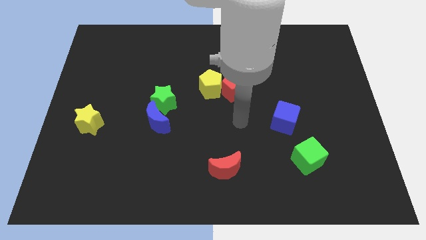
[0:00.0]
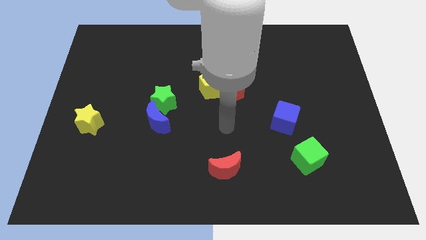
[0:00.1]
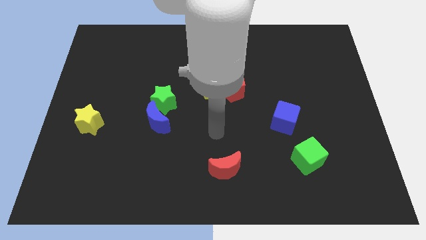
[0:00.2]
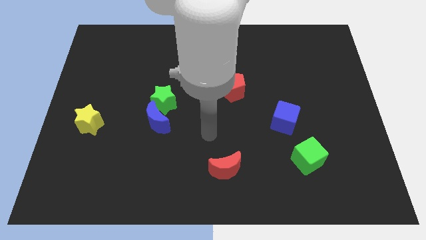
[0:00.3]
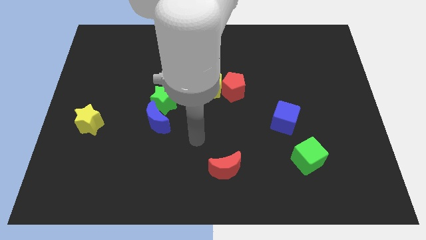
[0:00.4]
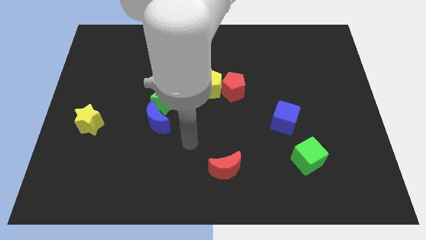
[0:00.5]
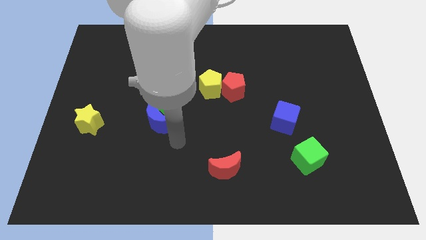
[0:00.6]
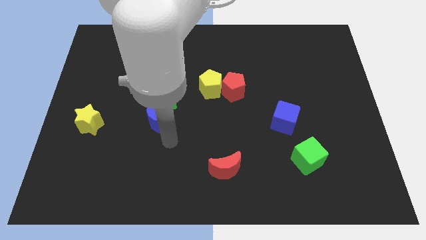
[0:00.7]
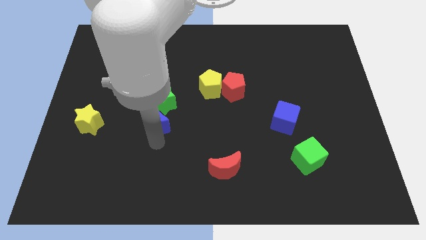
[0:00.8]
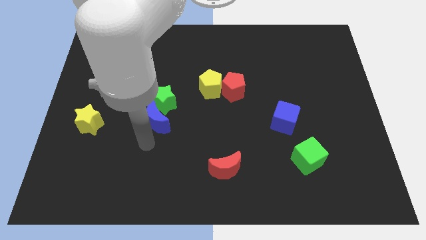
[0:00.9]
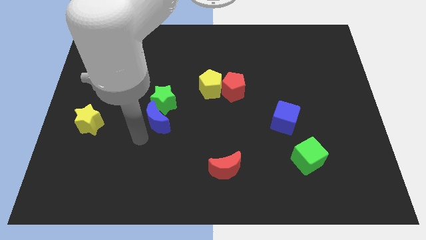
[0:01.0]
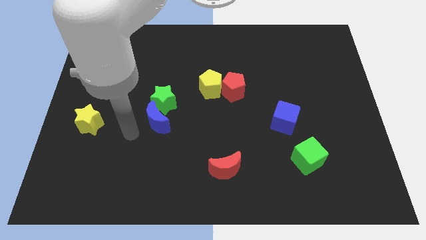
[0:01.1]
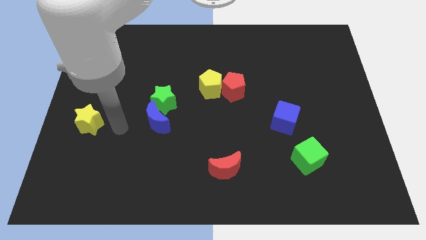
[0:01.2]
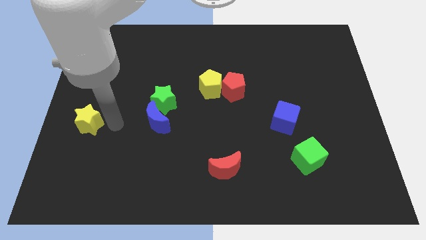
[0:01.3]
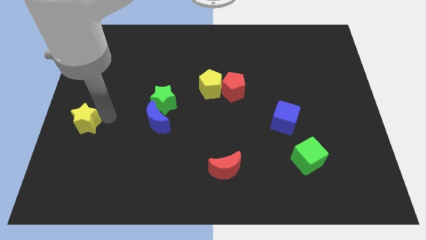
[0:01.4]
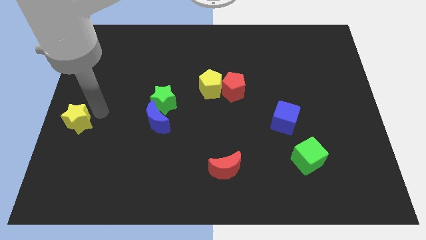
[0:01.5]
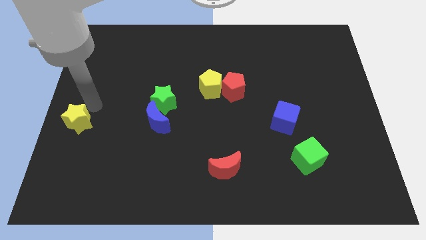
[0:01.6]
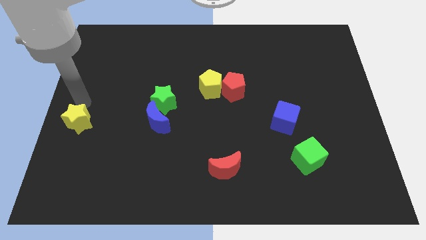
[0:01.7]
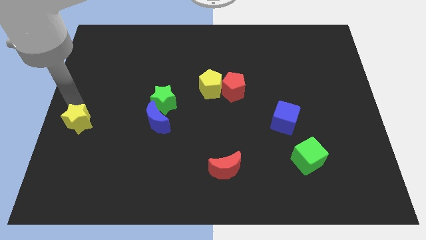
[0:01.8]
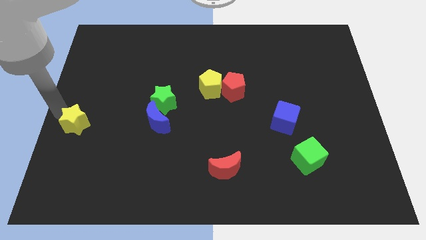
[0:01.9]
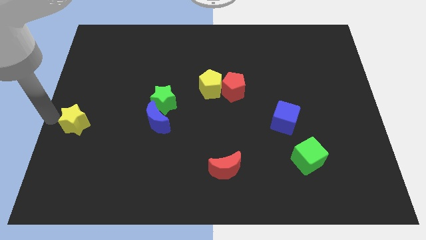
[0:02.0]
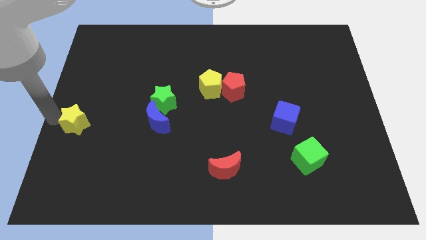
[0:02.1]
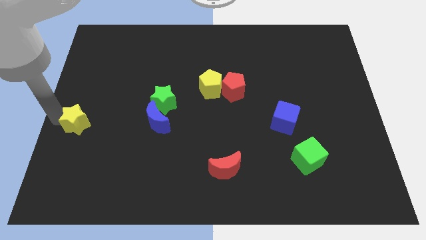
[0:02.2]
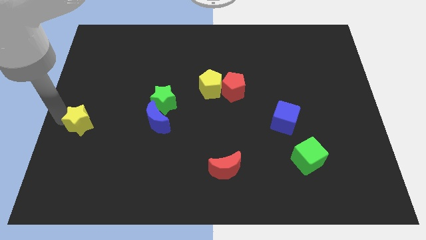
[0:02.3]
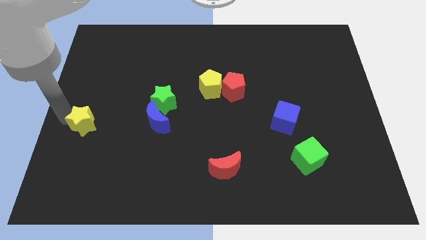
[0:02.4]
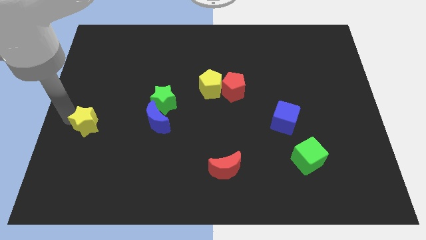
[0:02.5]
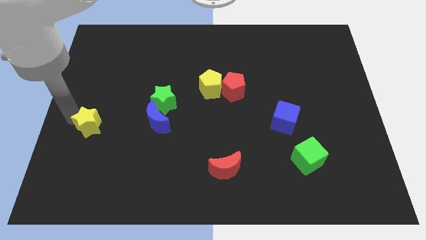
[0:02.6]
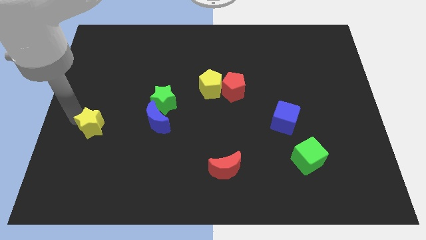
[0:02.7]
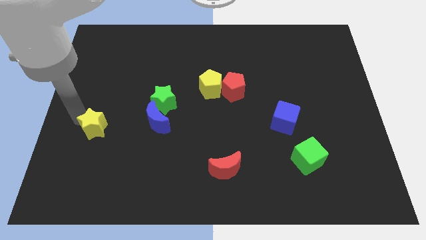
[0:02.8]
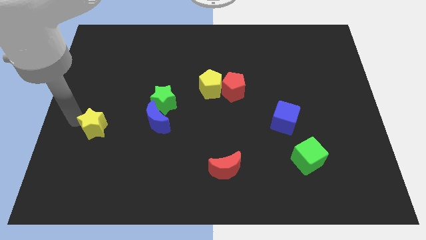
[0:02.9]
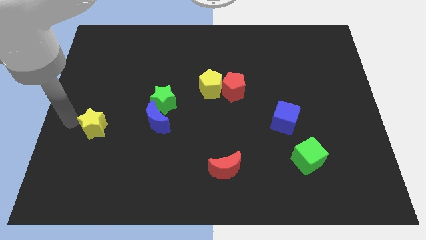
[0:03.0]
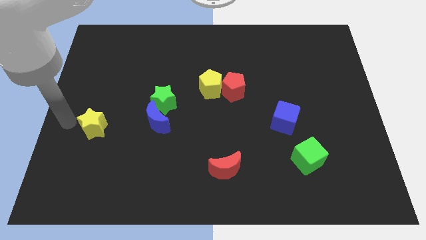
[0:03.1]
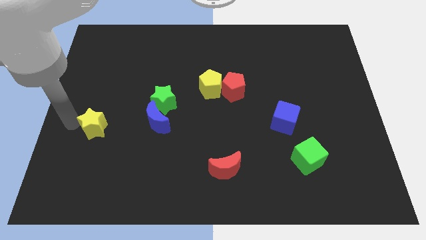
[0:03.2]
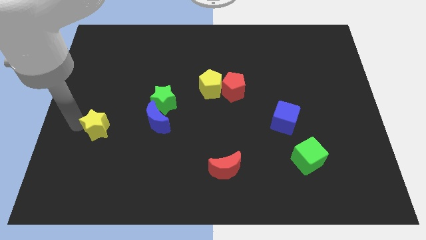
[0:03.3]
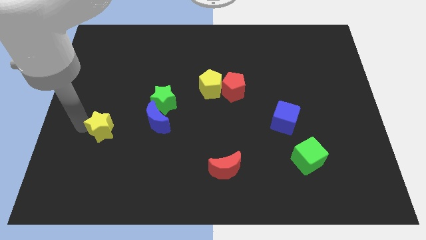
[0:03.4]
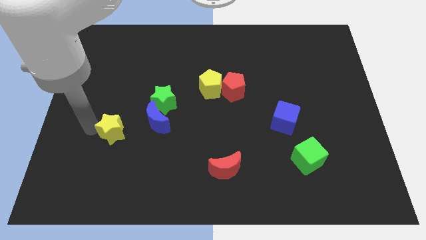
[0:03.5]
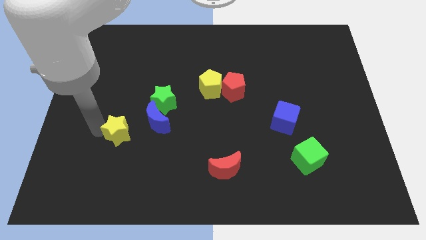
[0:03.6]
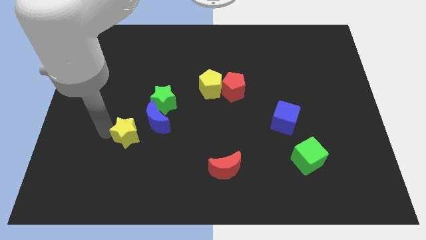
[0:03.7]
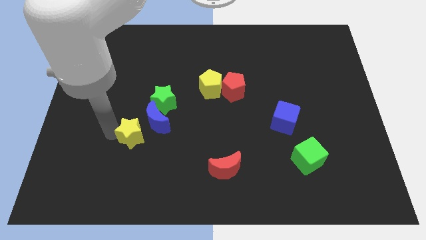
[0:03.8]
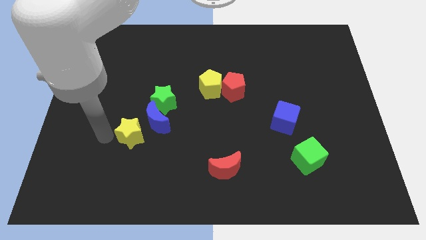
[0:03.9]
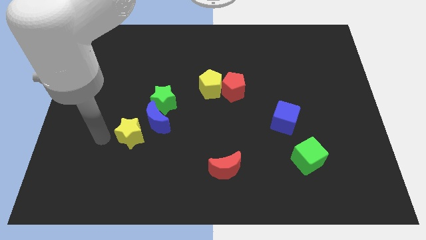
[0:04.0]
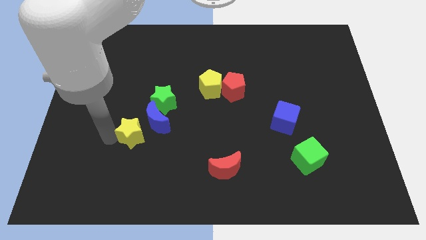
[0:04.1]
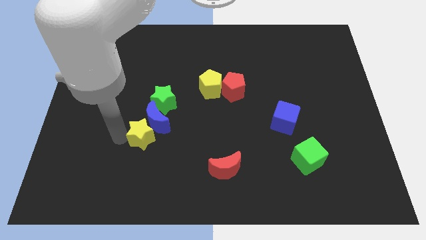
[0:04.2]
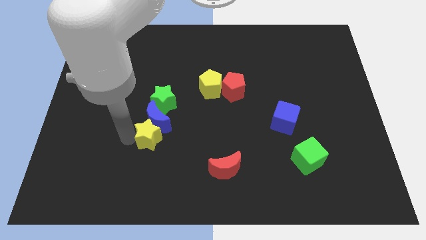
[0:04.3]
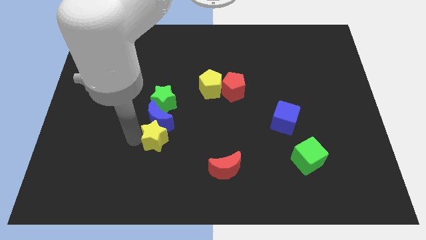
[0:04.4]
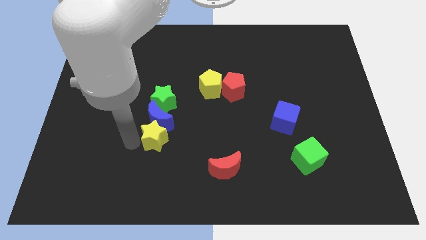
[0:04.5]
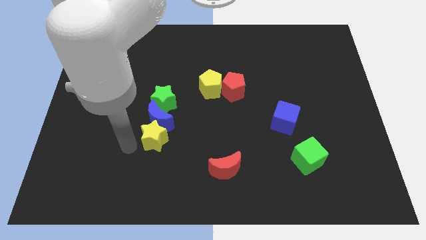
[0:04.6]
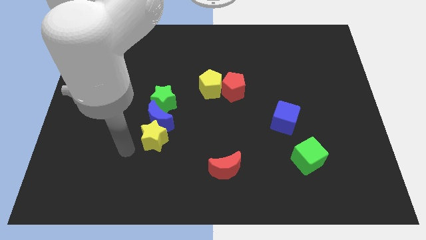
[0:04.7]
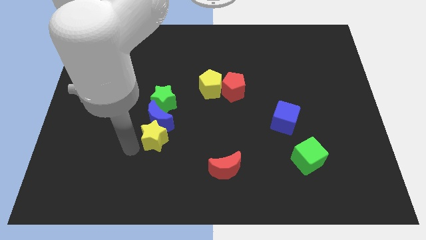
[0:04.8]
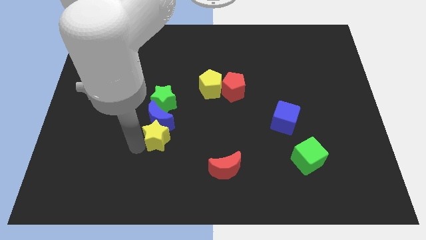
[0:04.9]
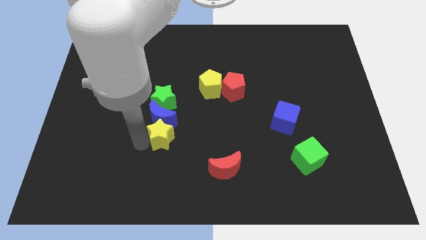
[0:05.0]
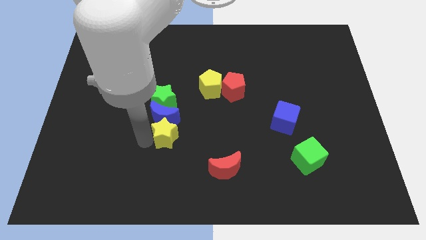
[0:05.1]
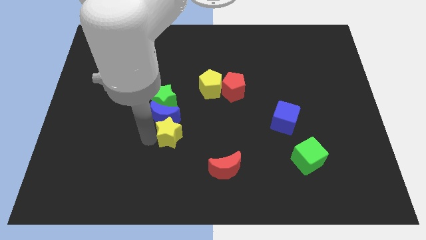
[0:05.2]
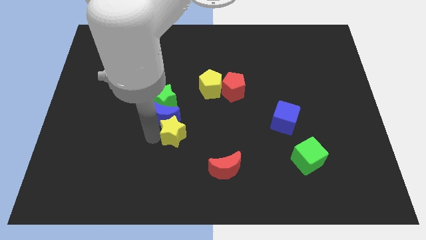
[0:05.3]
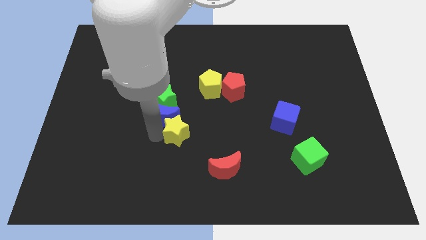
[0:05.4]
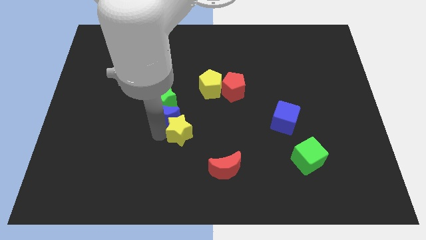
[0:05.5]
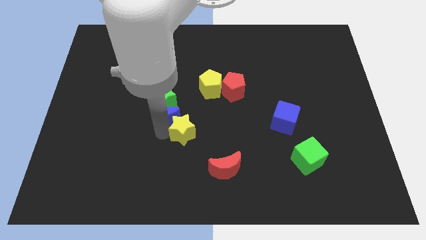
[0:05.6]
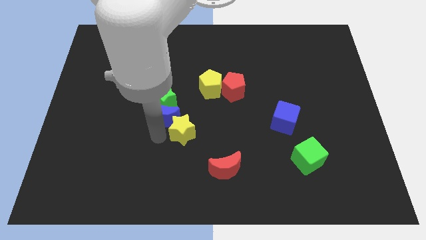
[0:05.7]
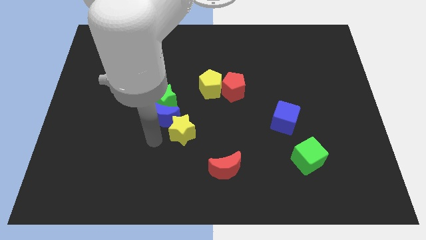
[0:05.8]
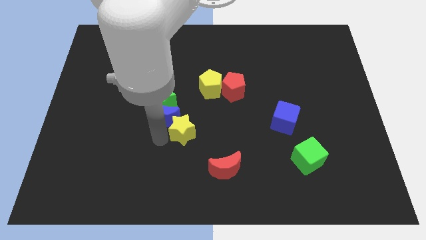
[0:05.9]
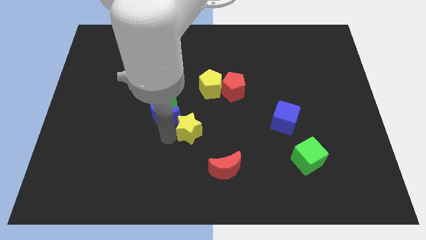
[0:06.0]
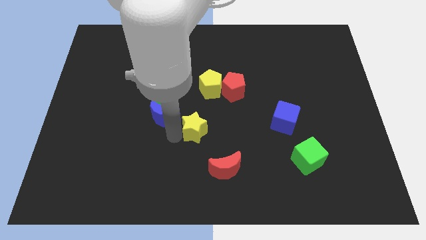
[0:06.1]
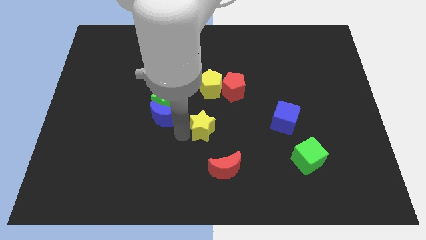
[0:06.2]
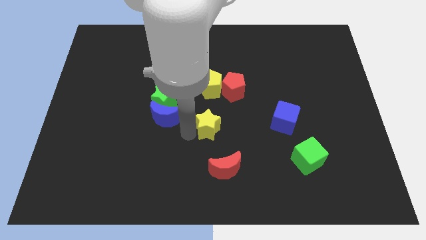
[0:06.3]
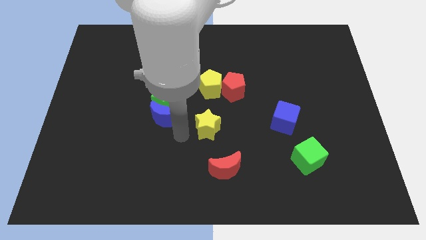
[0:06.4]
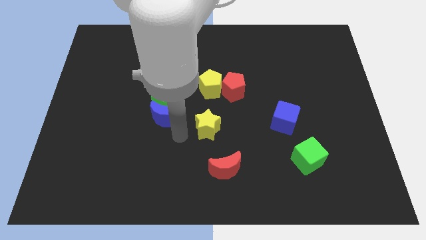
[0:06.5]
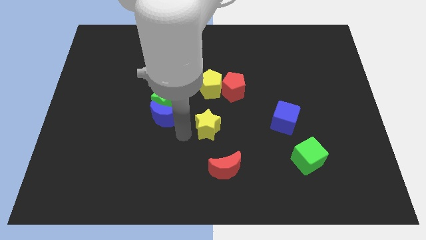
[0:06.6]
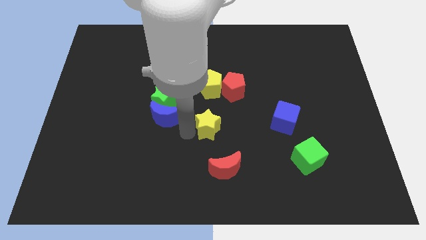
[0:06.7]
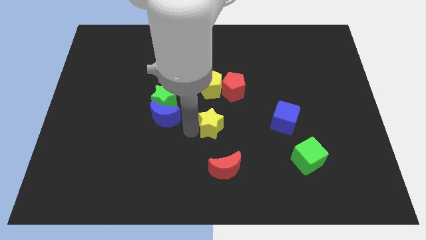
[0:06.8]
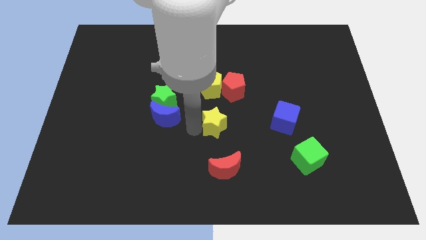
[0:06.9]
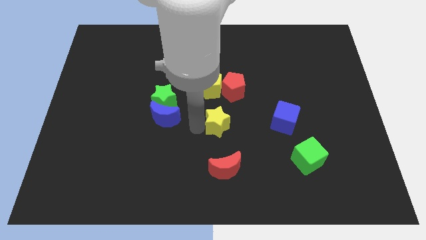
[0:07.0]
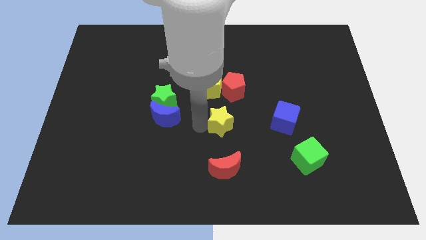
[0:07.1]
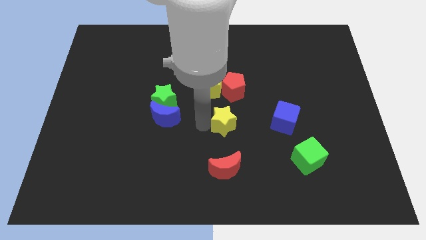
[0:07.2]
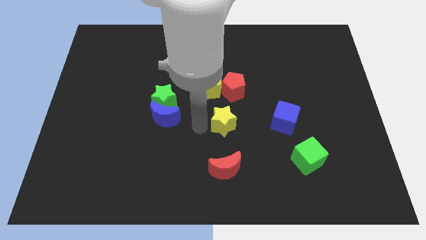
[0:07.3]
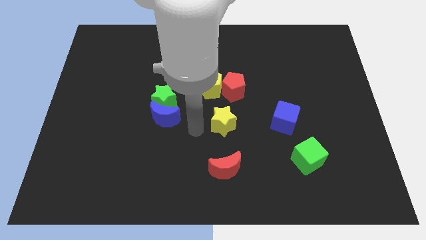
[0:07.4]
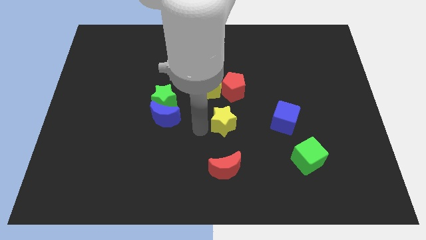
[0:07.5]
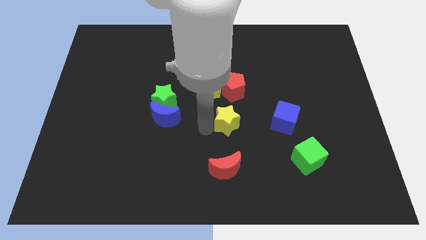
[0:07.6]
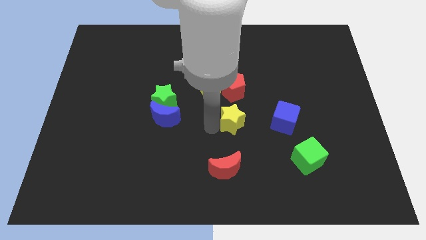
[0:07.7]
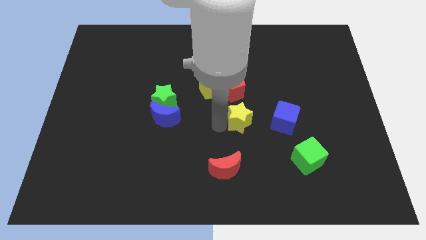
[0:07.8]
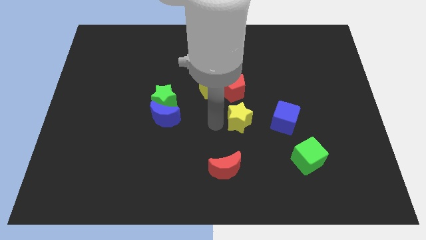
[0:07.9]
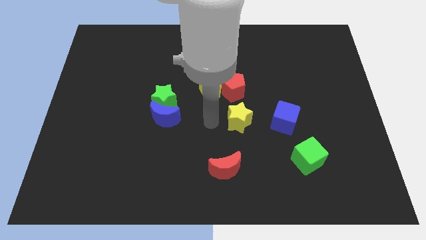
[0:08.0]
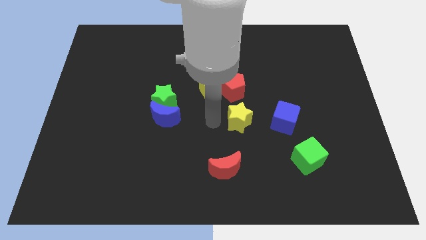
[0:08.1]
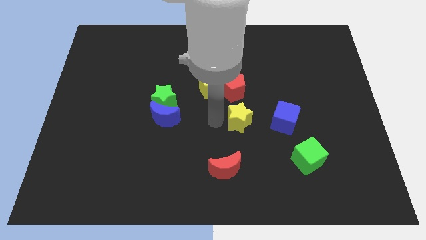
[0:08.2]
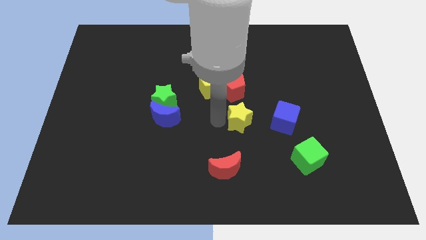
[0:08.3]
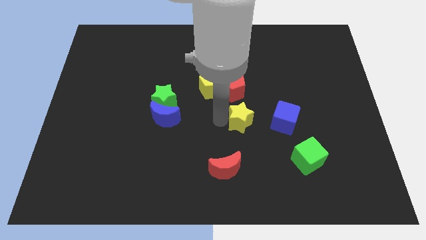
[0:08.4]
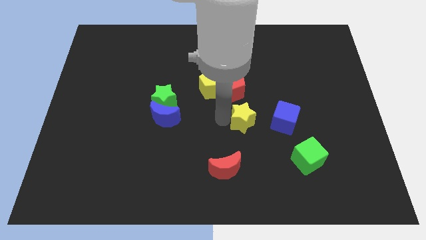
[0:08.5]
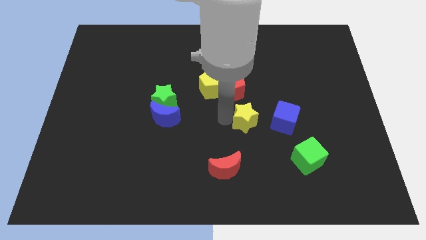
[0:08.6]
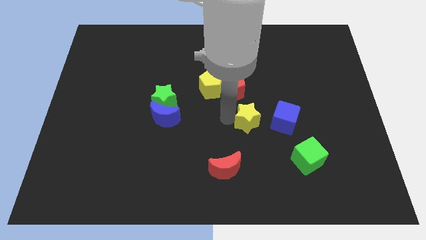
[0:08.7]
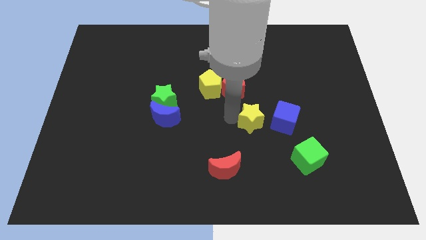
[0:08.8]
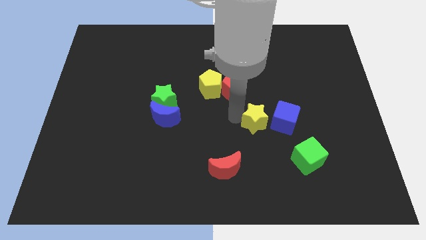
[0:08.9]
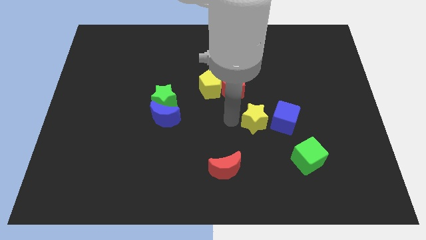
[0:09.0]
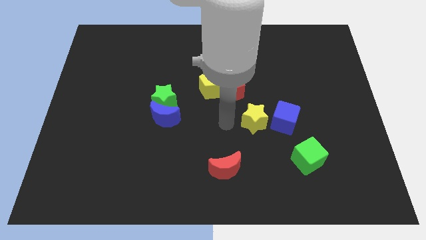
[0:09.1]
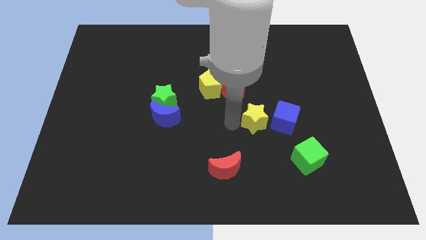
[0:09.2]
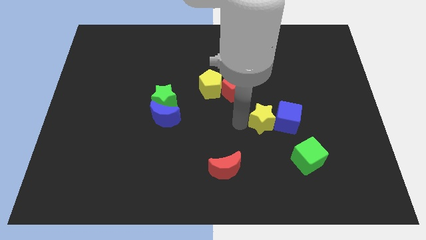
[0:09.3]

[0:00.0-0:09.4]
put the yellow star close to the blue cube
